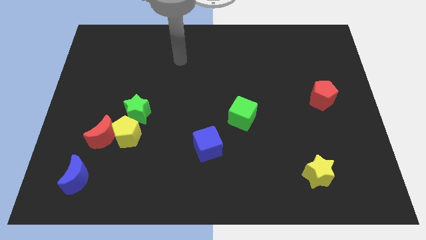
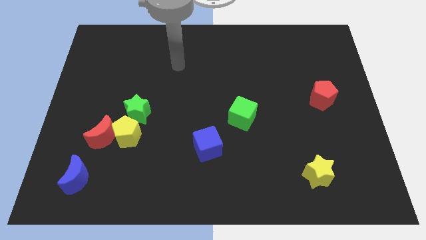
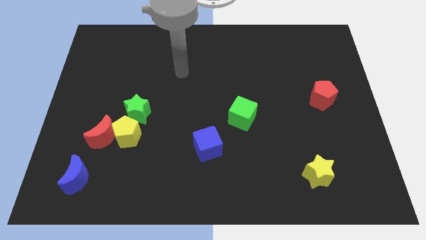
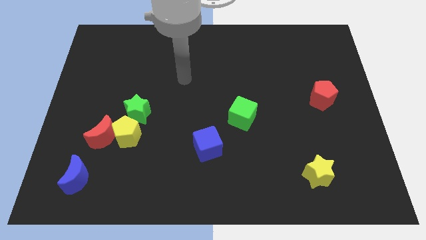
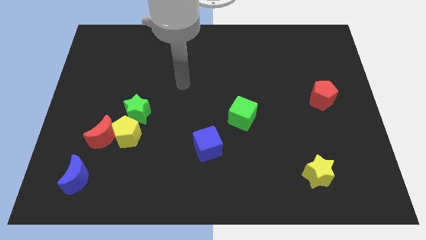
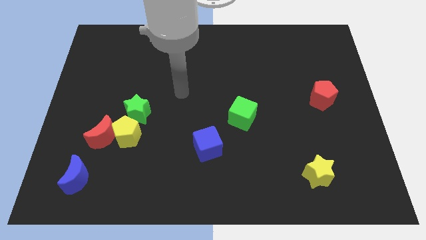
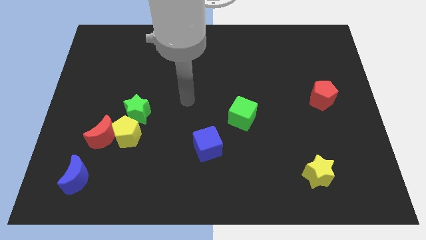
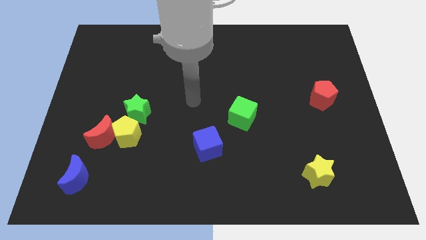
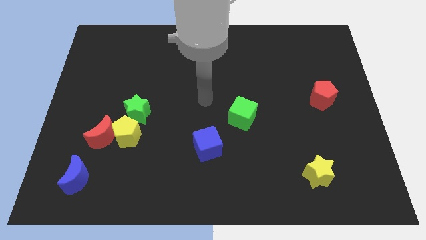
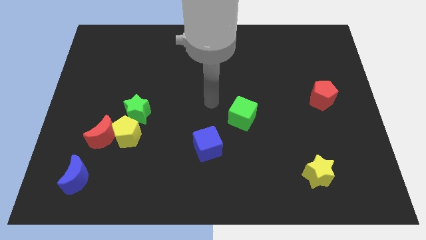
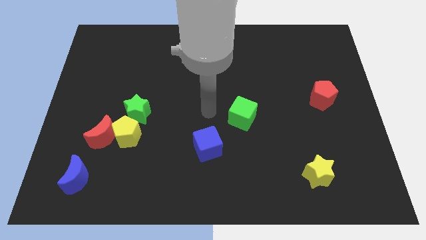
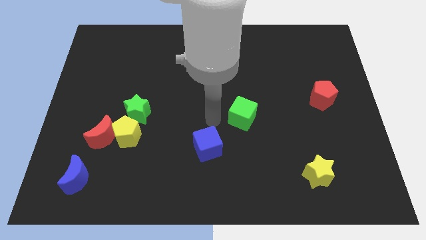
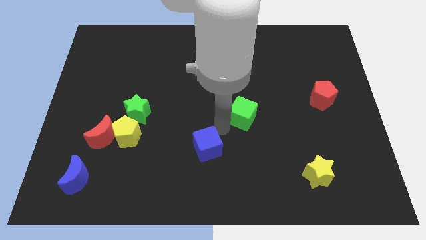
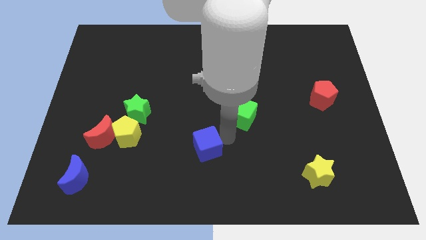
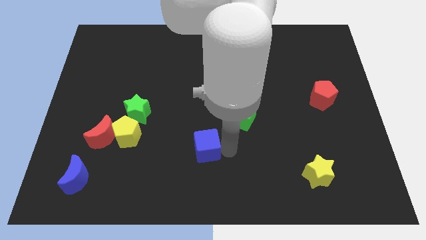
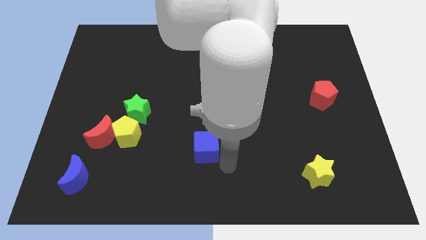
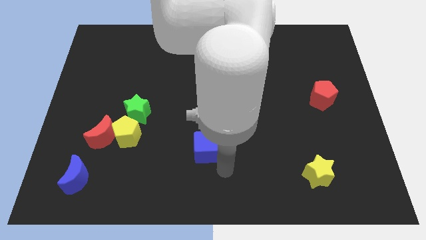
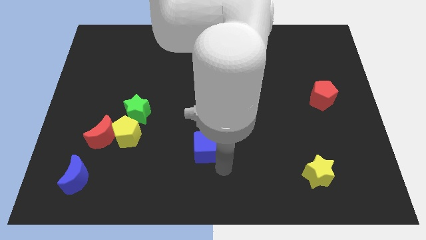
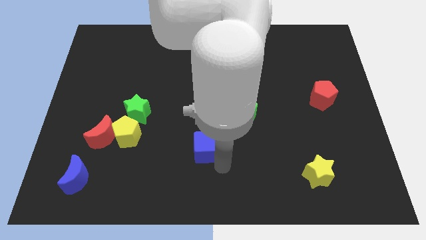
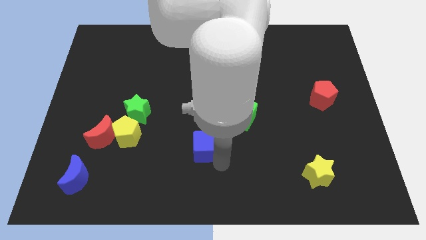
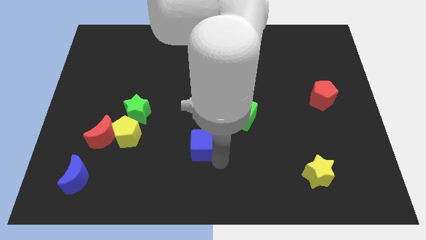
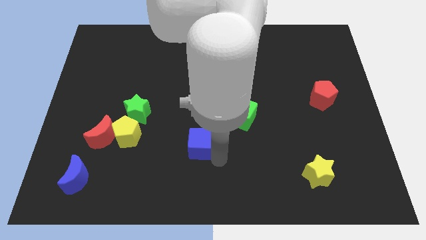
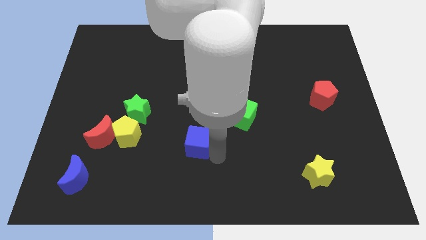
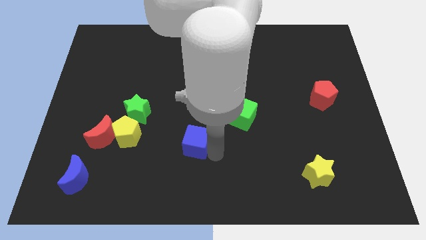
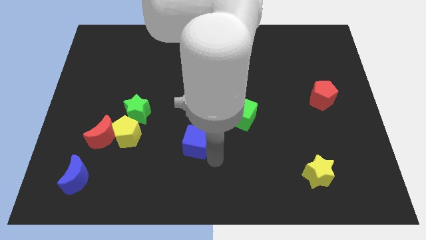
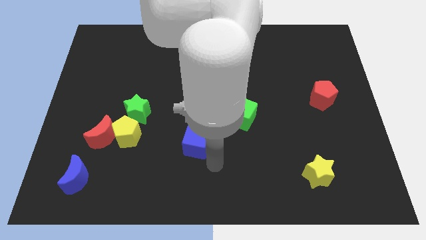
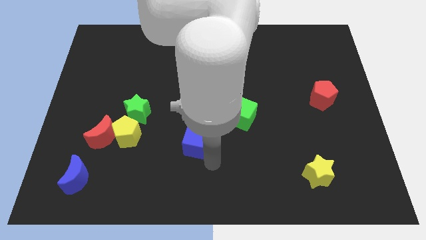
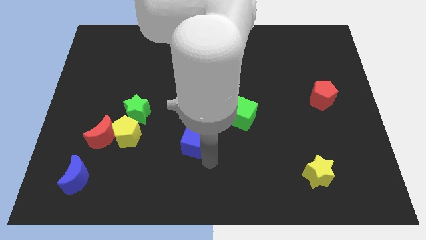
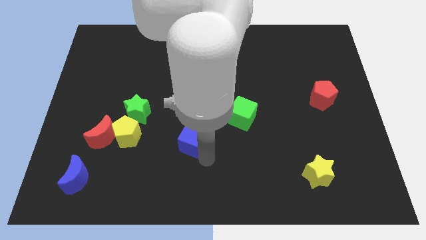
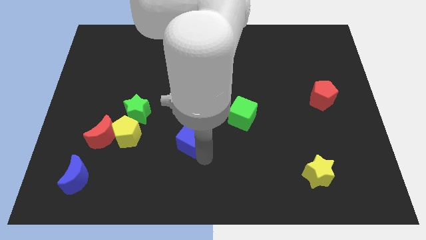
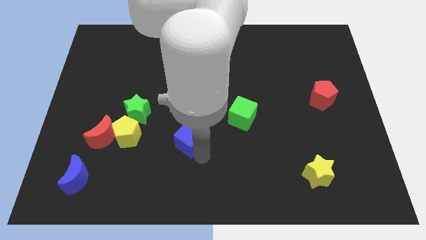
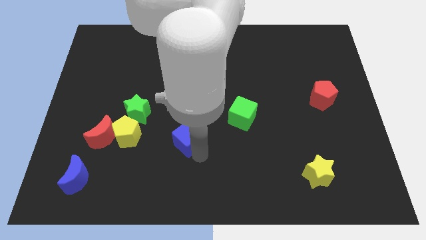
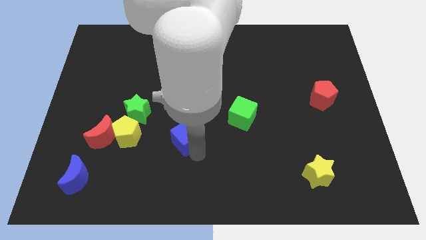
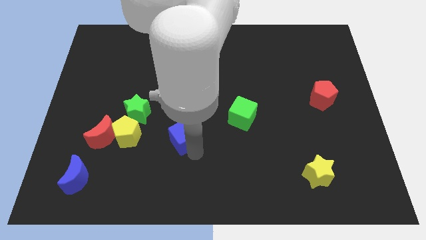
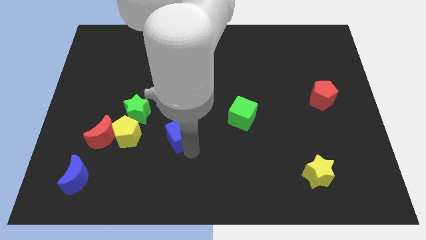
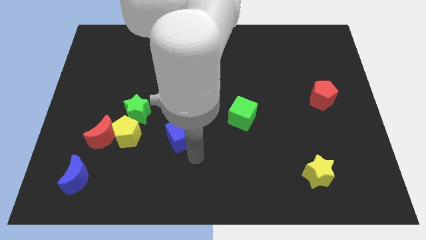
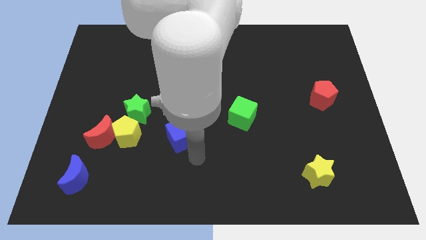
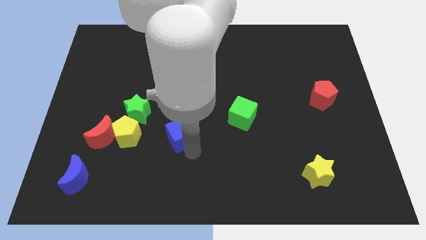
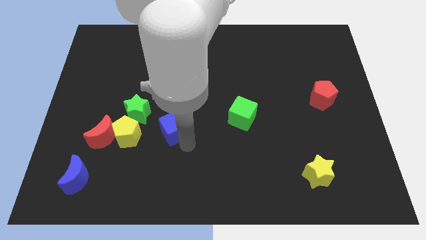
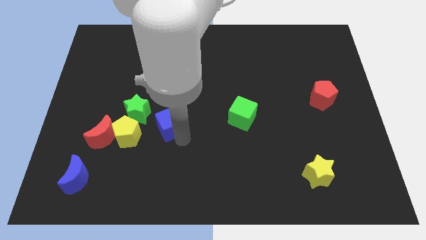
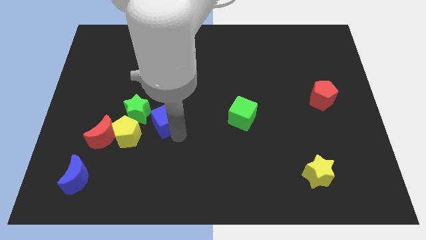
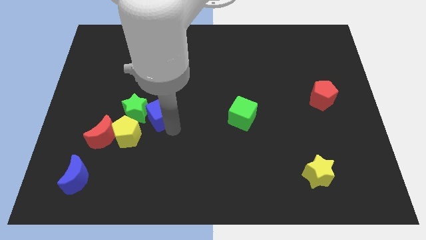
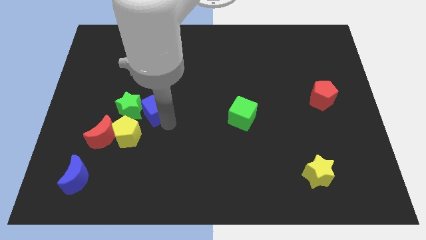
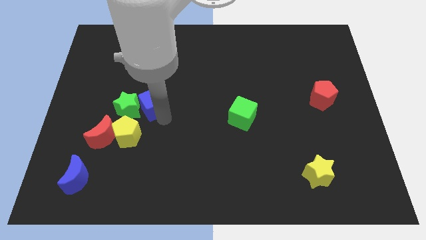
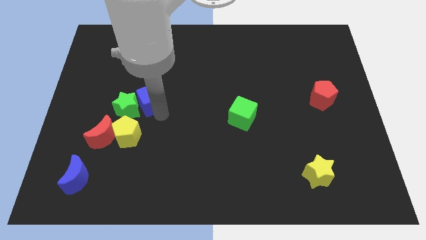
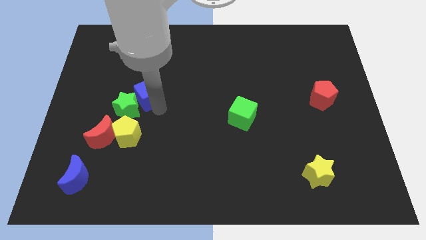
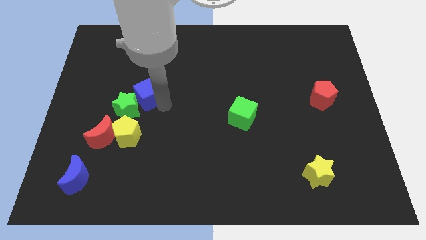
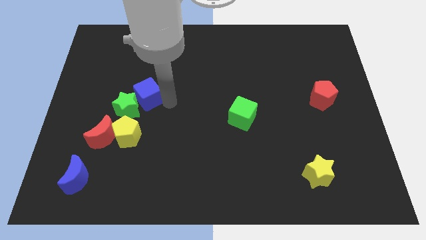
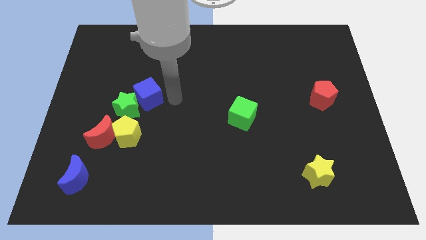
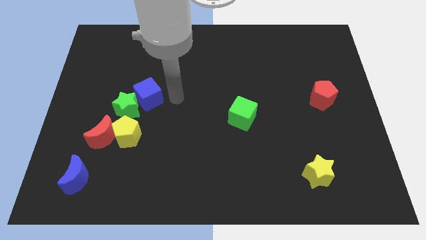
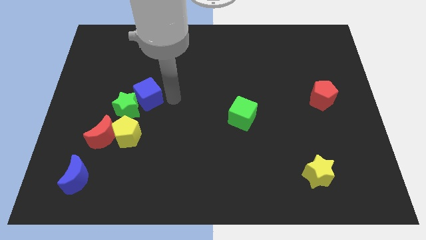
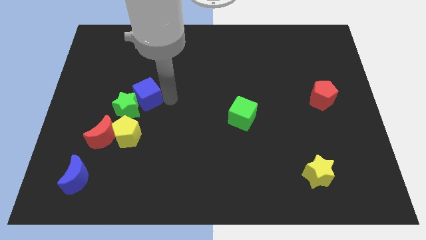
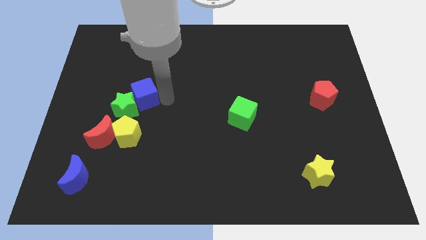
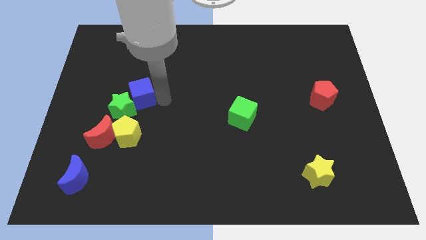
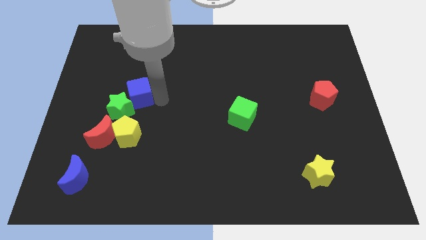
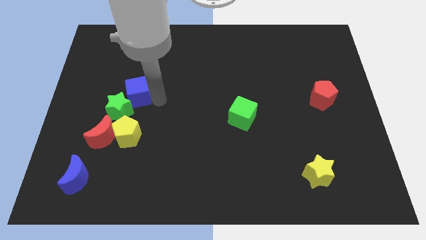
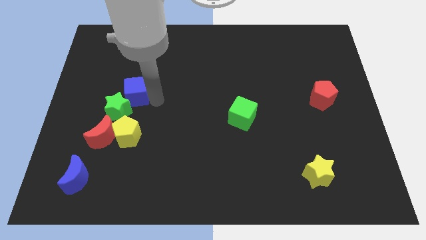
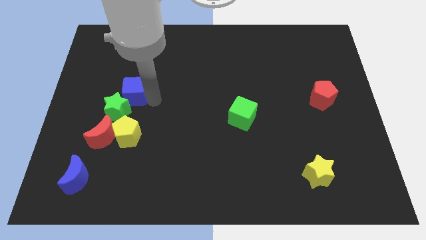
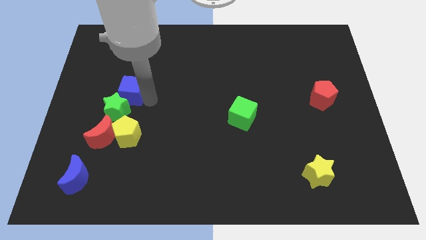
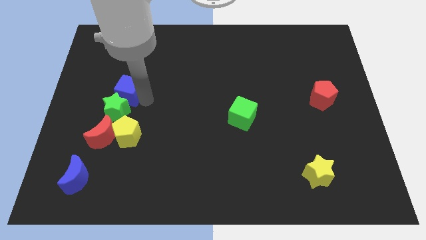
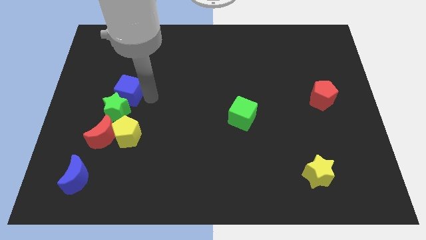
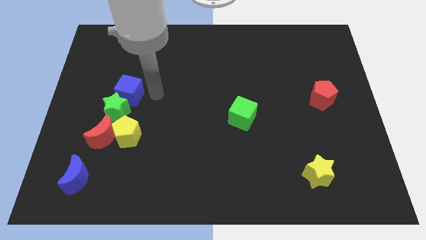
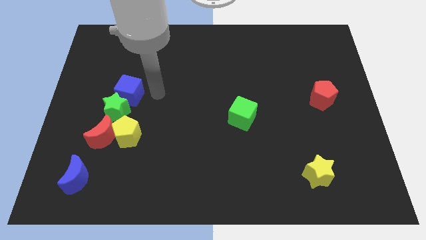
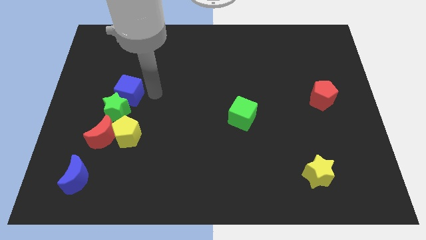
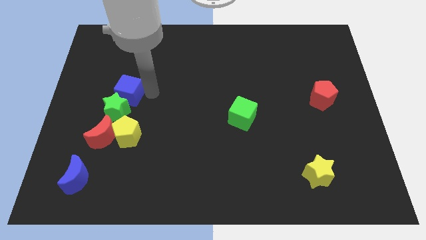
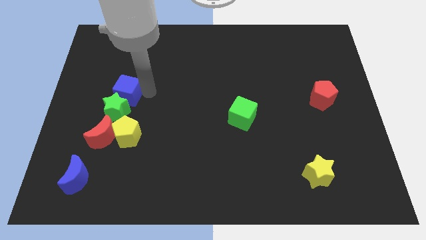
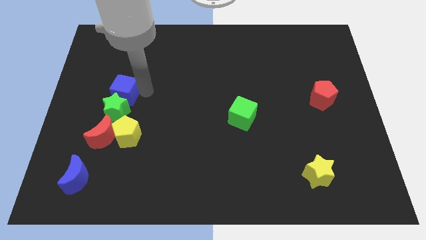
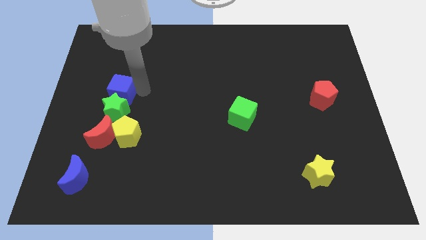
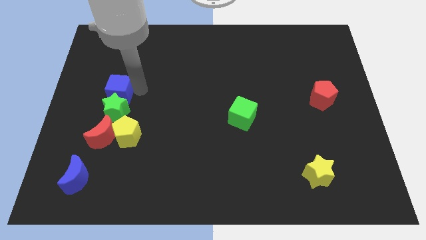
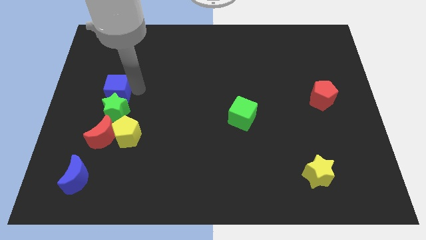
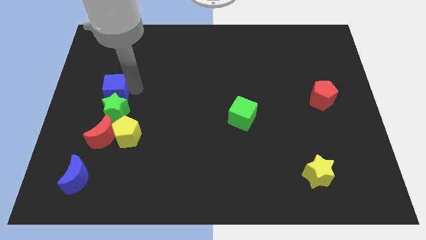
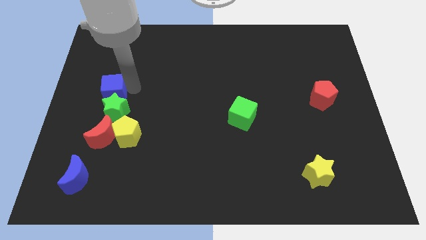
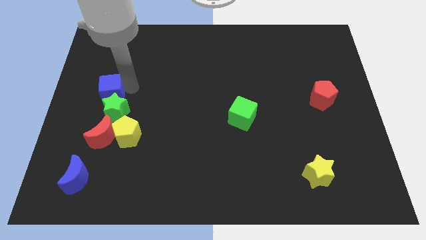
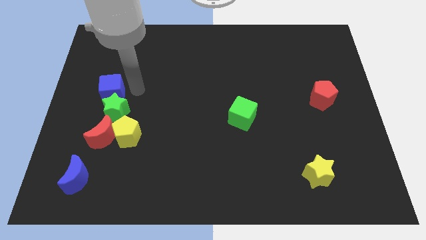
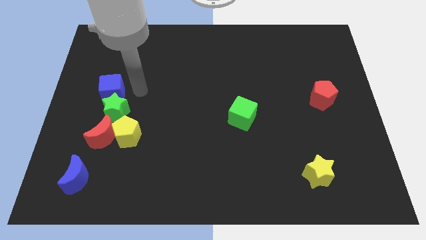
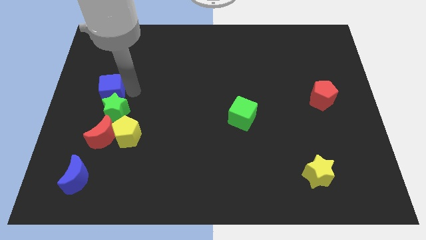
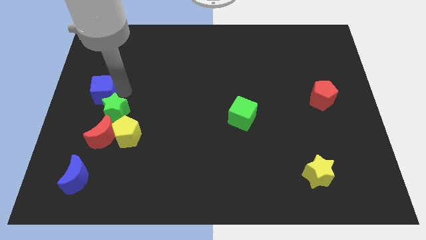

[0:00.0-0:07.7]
slide the blue cube to the center left
